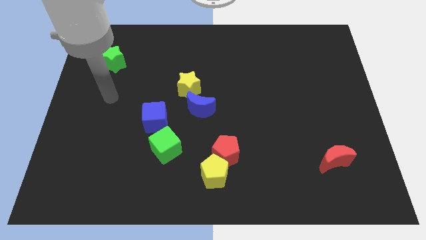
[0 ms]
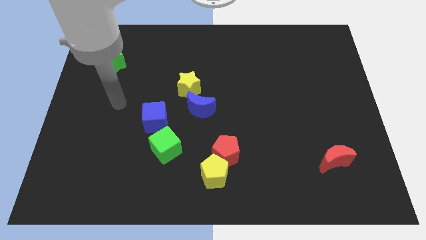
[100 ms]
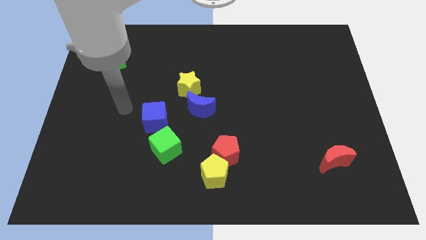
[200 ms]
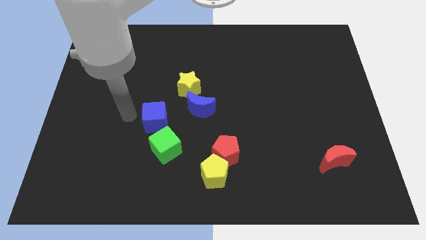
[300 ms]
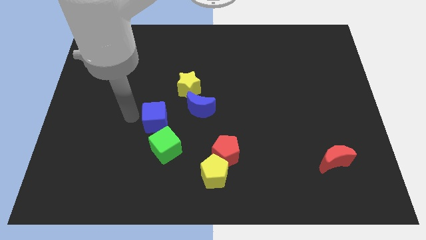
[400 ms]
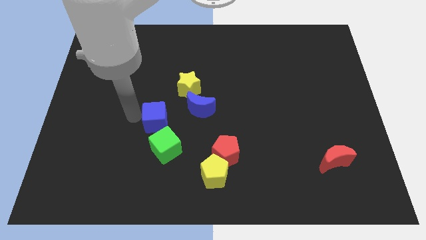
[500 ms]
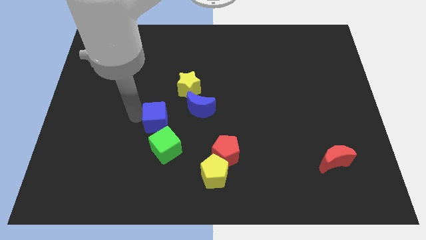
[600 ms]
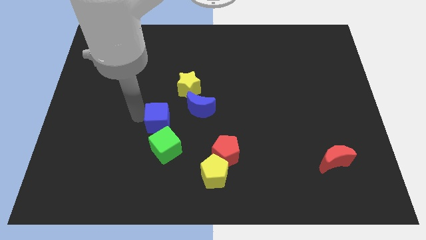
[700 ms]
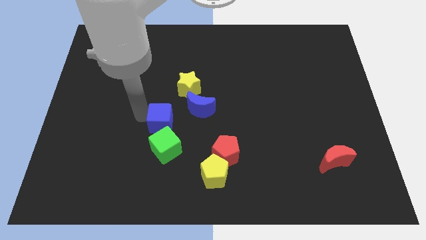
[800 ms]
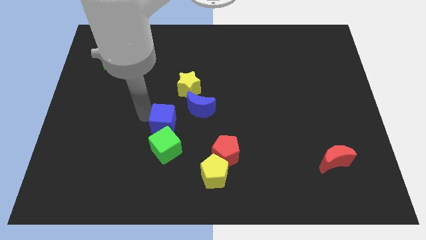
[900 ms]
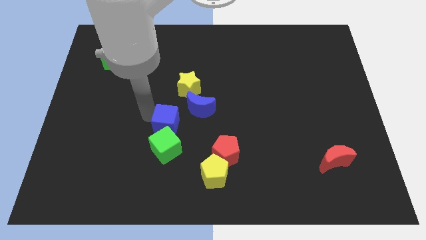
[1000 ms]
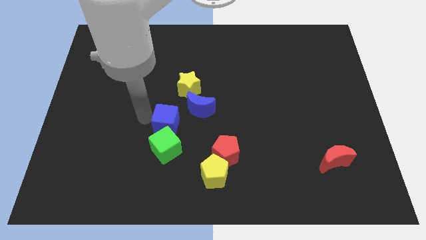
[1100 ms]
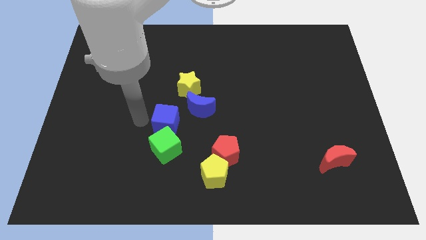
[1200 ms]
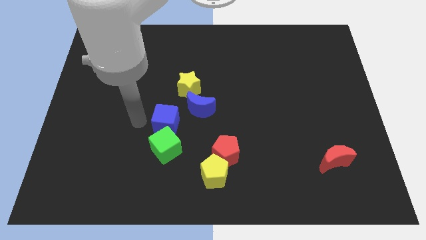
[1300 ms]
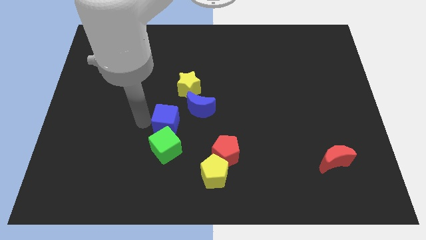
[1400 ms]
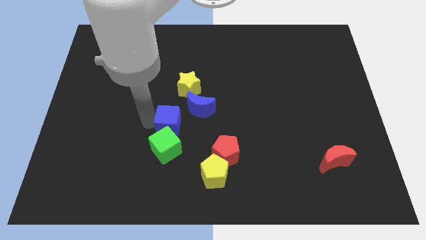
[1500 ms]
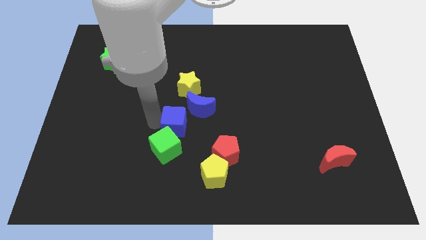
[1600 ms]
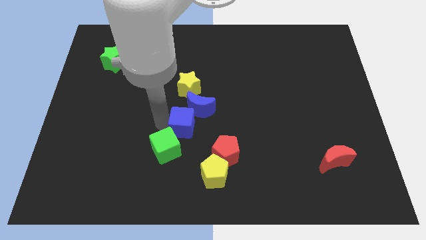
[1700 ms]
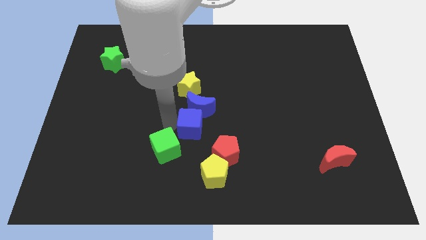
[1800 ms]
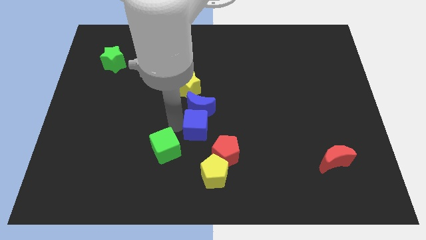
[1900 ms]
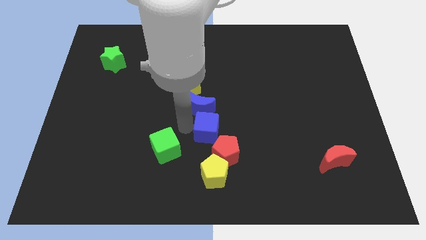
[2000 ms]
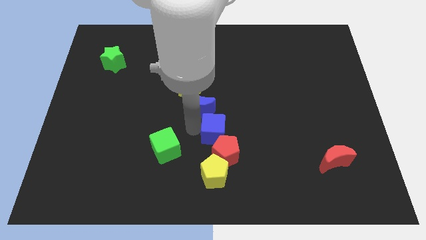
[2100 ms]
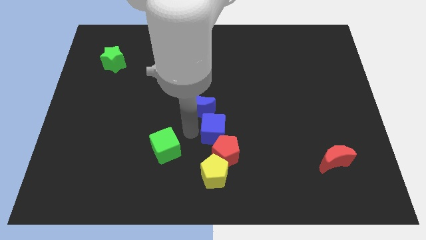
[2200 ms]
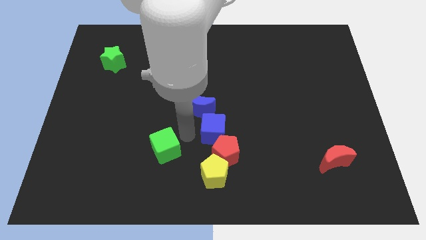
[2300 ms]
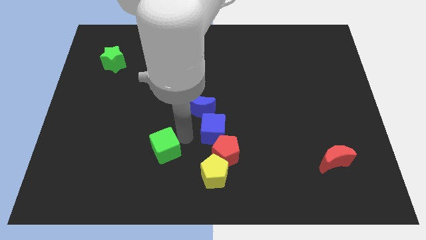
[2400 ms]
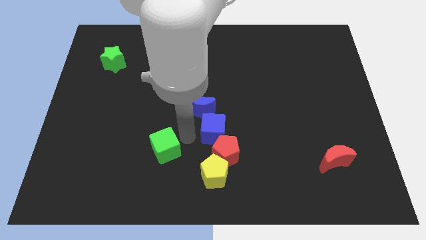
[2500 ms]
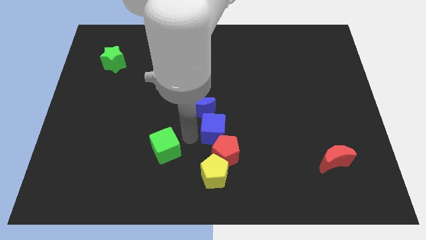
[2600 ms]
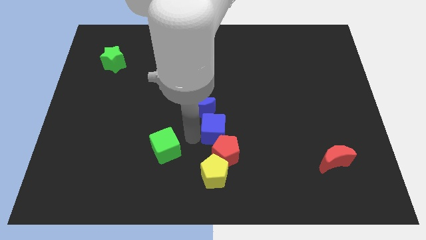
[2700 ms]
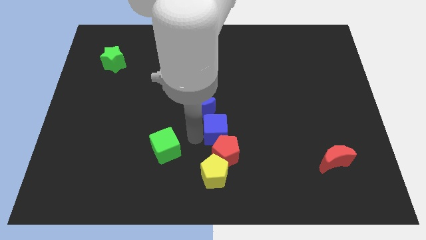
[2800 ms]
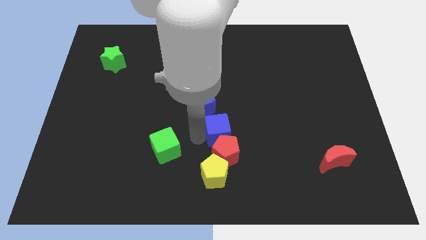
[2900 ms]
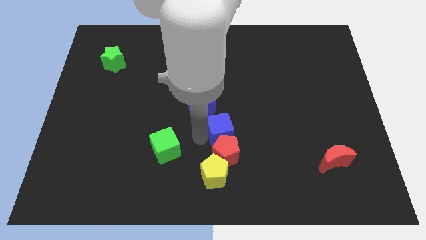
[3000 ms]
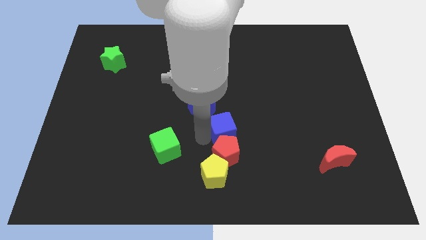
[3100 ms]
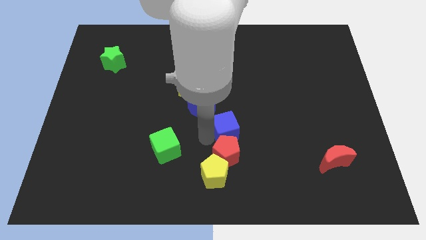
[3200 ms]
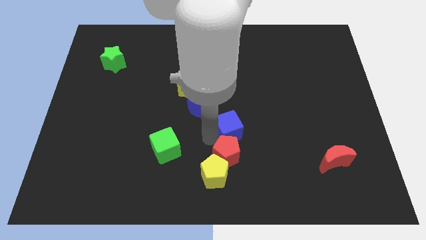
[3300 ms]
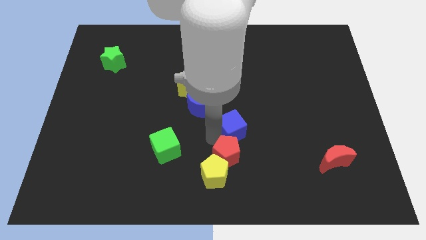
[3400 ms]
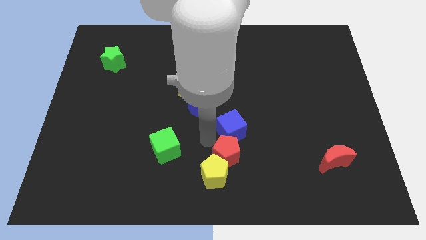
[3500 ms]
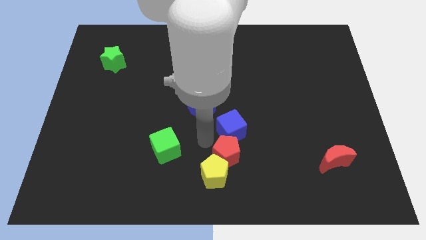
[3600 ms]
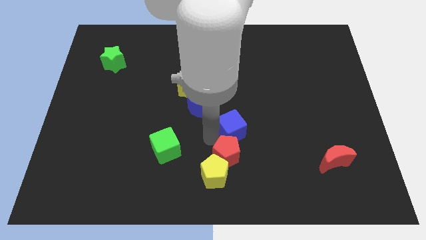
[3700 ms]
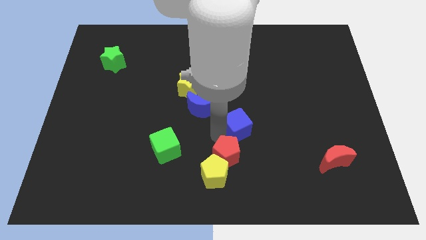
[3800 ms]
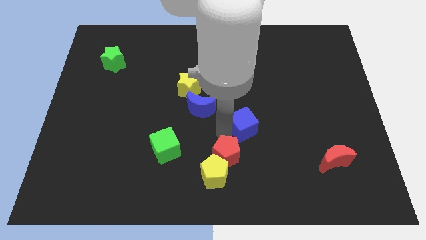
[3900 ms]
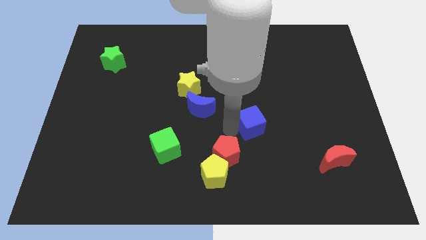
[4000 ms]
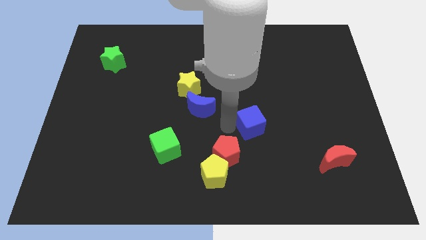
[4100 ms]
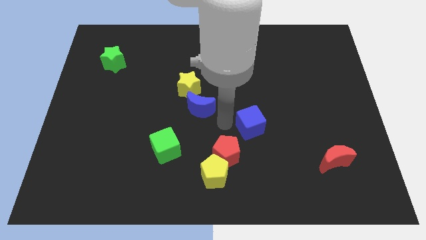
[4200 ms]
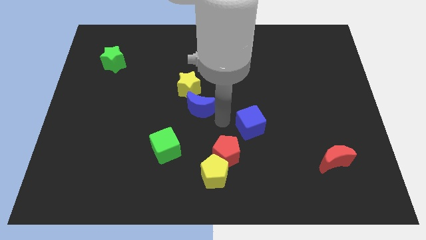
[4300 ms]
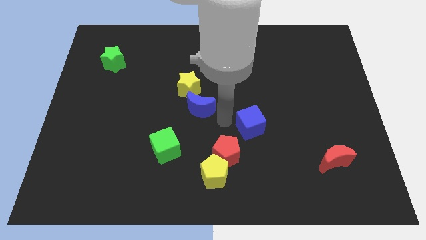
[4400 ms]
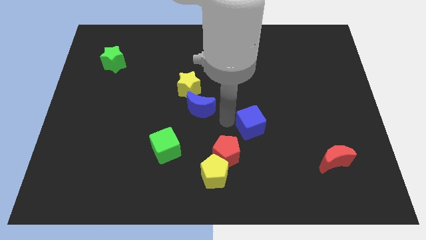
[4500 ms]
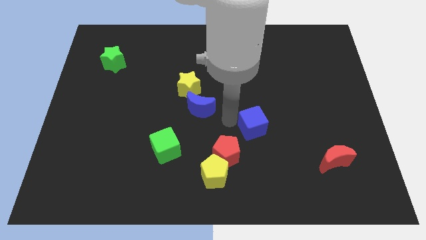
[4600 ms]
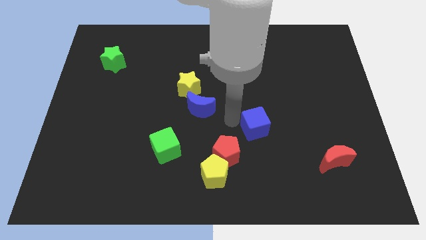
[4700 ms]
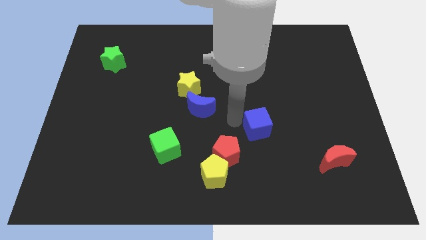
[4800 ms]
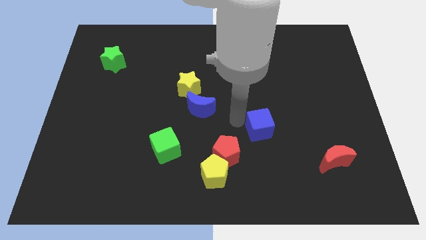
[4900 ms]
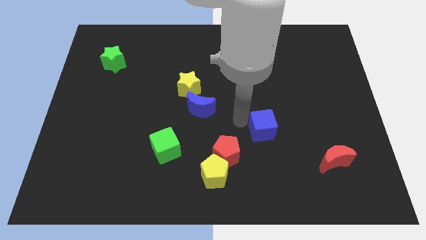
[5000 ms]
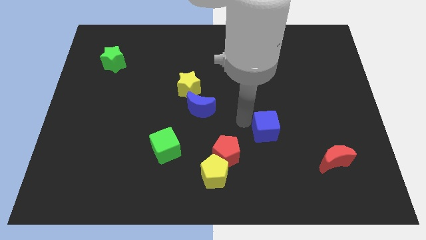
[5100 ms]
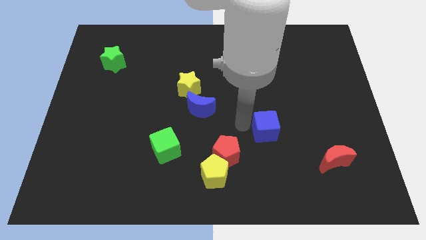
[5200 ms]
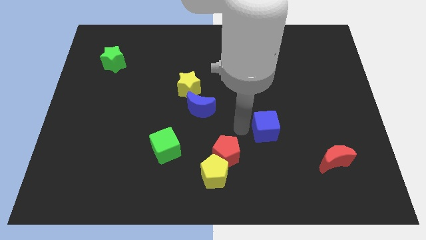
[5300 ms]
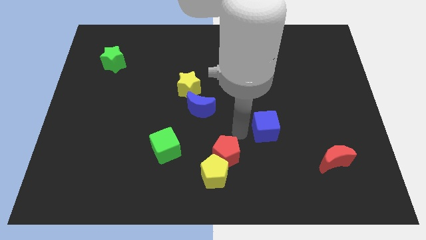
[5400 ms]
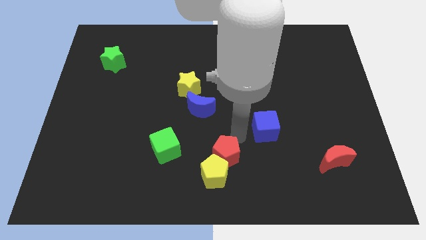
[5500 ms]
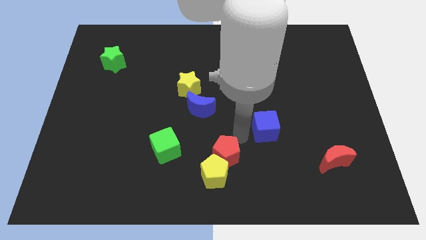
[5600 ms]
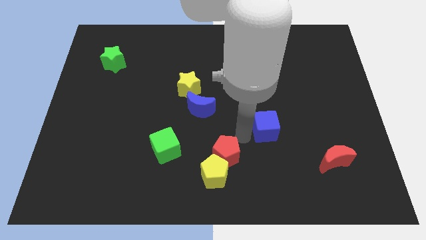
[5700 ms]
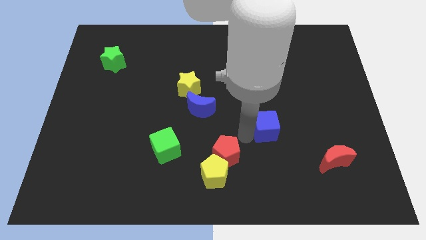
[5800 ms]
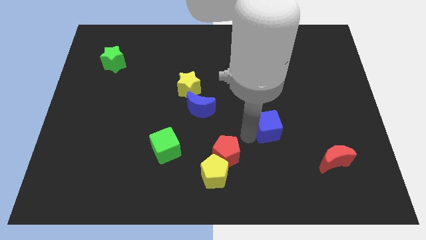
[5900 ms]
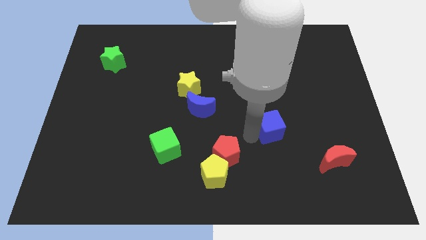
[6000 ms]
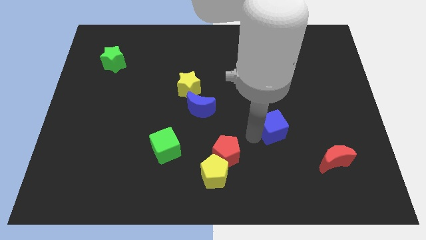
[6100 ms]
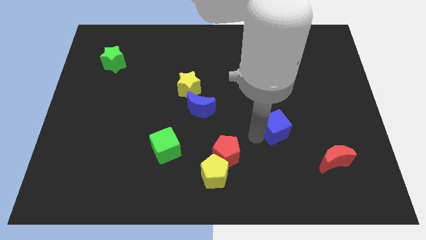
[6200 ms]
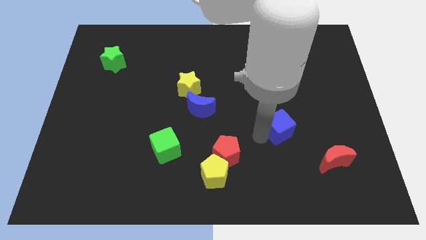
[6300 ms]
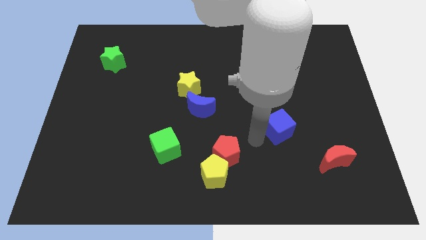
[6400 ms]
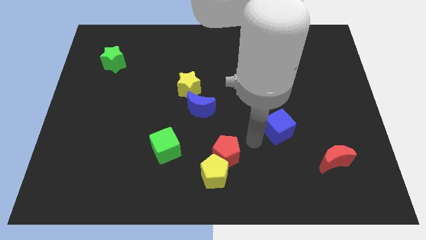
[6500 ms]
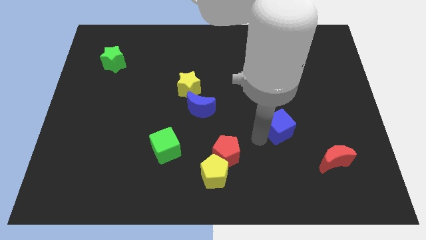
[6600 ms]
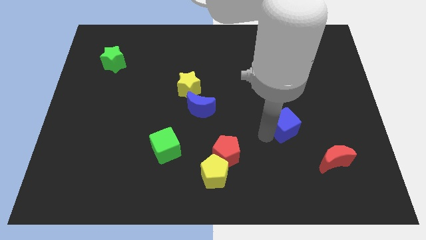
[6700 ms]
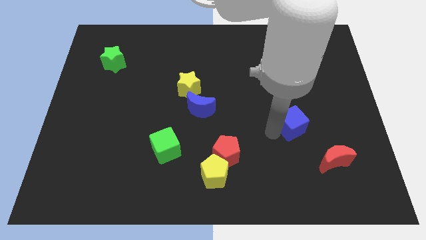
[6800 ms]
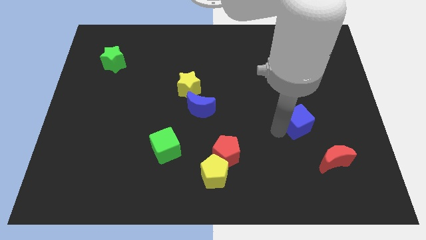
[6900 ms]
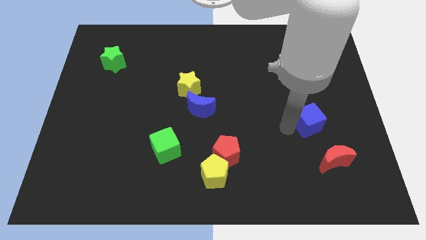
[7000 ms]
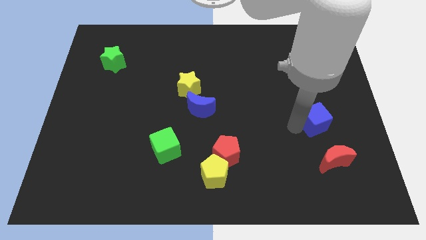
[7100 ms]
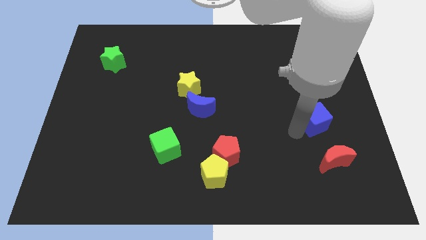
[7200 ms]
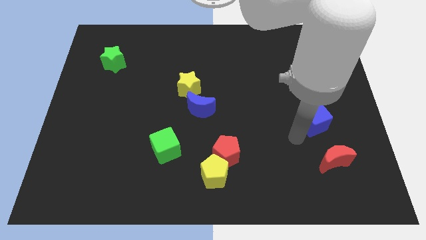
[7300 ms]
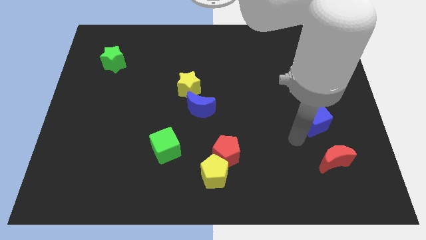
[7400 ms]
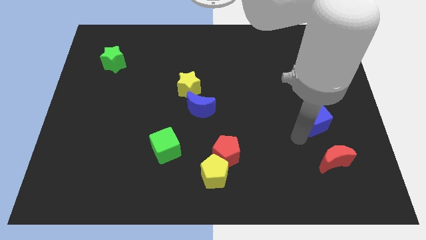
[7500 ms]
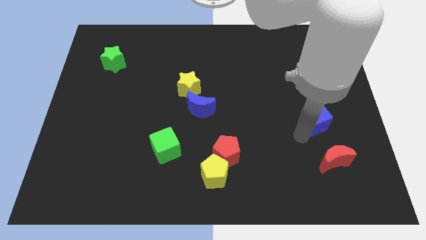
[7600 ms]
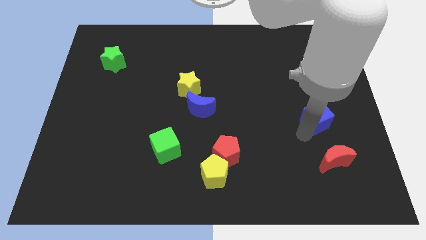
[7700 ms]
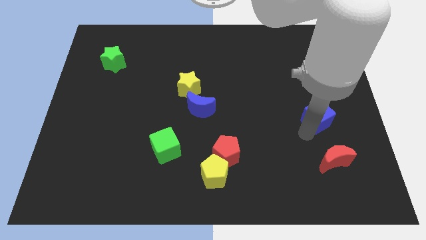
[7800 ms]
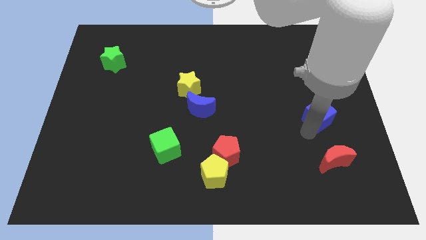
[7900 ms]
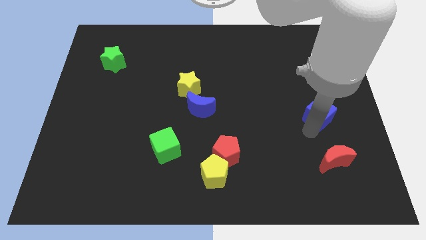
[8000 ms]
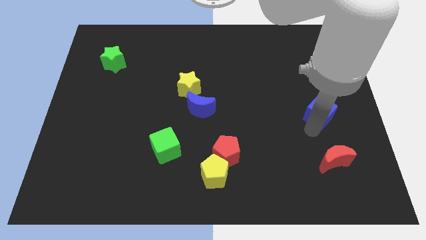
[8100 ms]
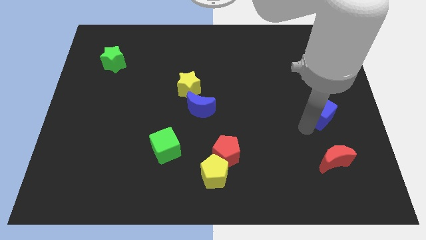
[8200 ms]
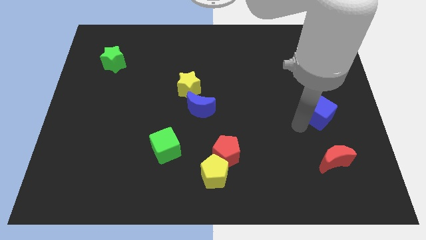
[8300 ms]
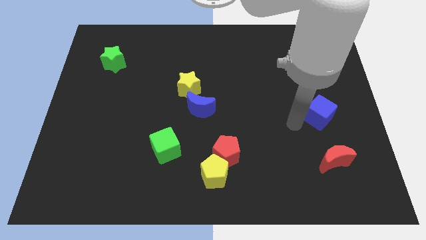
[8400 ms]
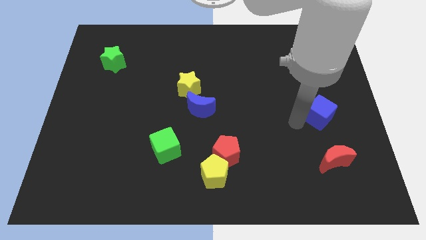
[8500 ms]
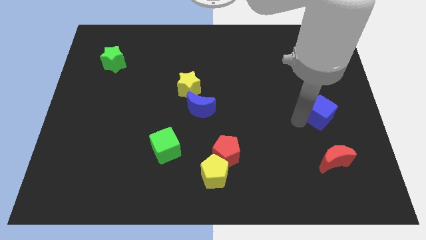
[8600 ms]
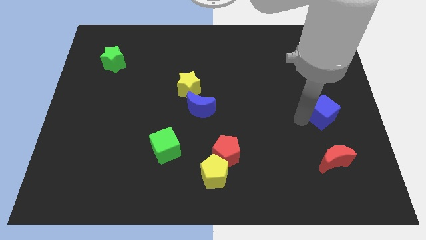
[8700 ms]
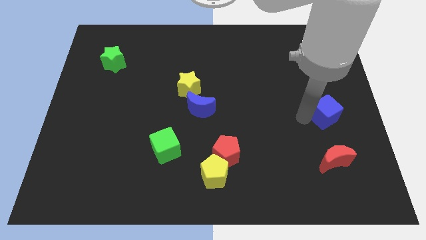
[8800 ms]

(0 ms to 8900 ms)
slide the blue cube to the right side of the board
